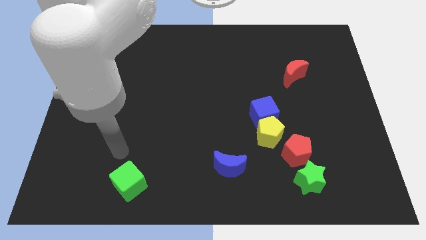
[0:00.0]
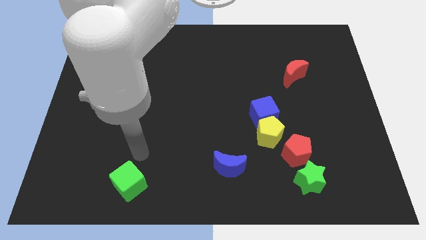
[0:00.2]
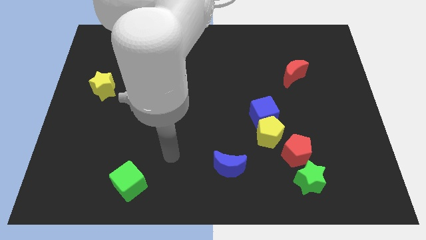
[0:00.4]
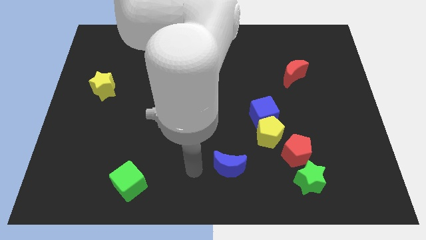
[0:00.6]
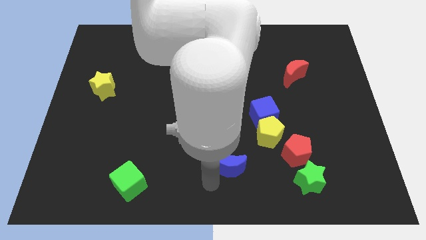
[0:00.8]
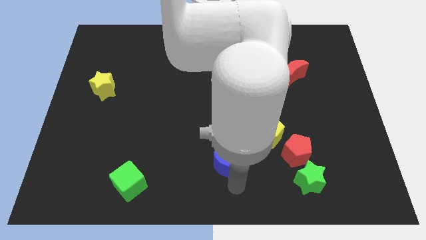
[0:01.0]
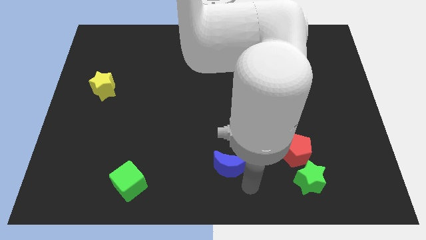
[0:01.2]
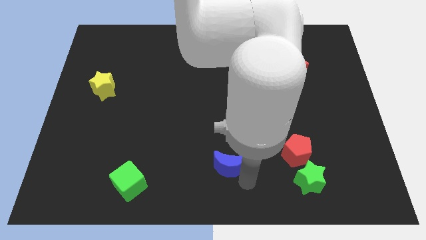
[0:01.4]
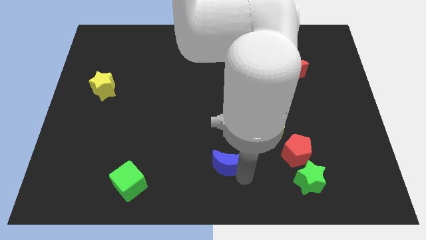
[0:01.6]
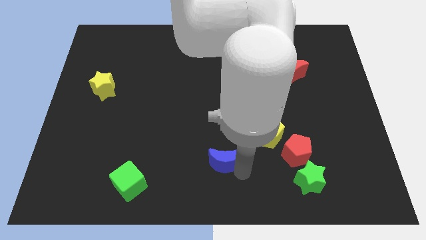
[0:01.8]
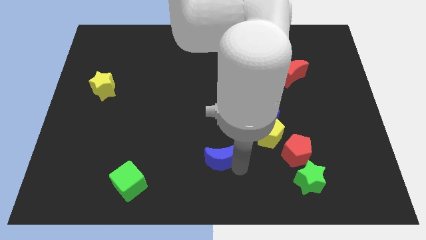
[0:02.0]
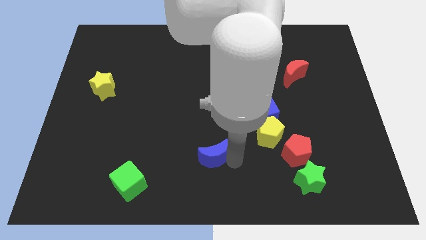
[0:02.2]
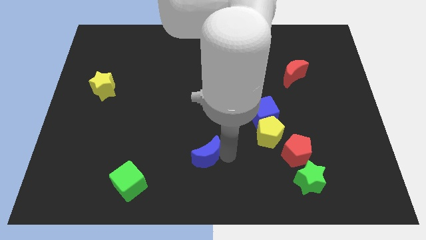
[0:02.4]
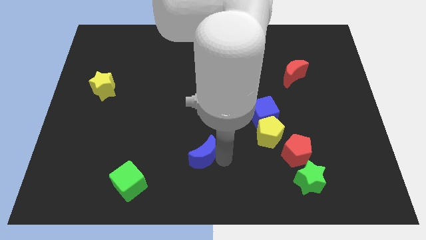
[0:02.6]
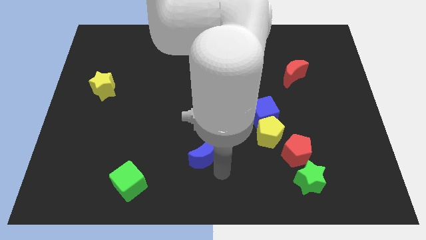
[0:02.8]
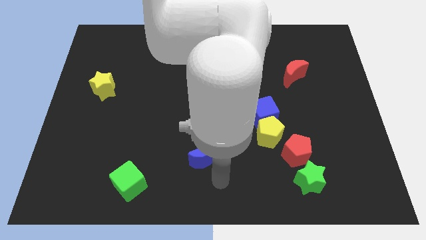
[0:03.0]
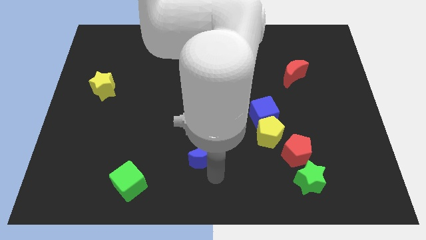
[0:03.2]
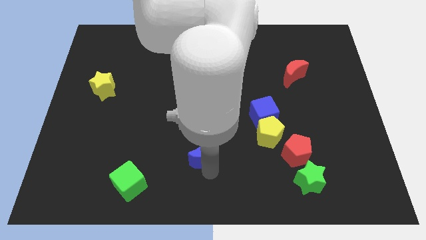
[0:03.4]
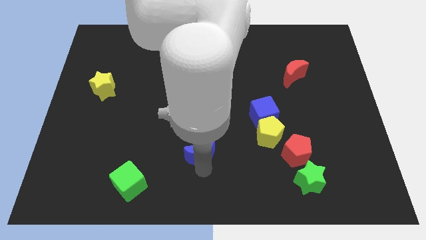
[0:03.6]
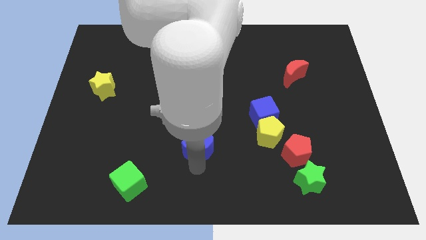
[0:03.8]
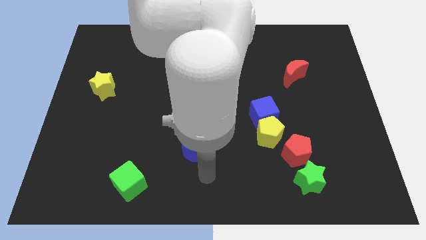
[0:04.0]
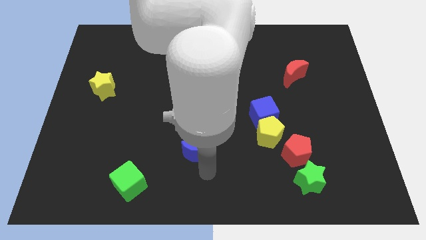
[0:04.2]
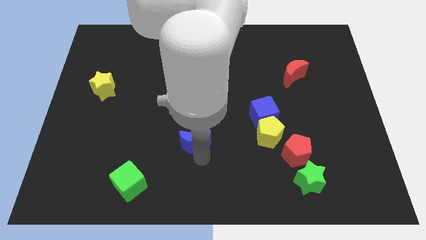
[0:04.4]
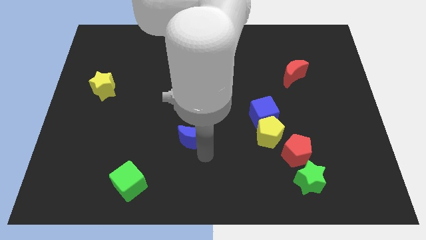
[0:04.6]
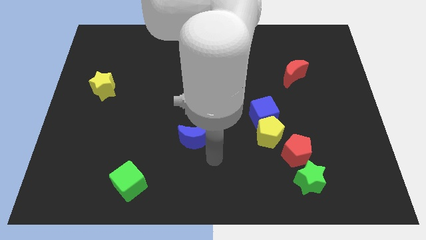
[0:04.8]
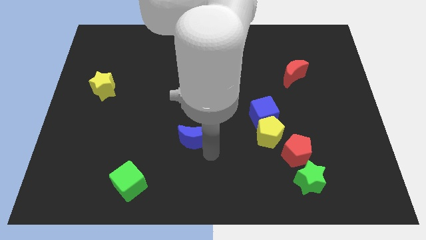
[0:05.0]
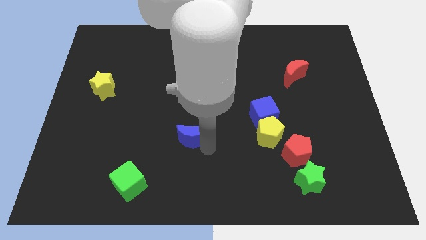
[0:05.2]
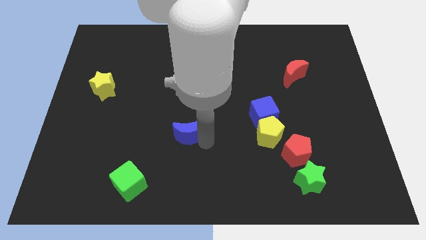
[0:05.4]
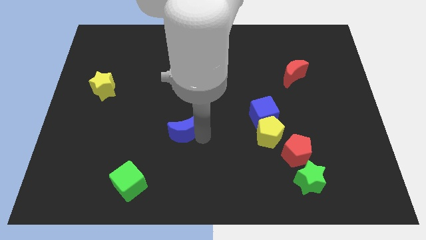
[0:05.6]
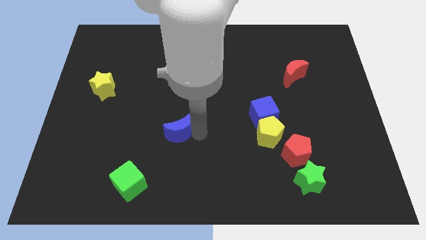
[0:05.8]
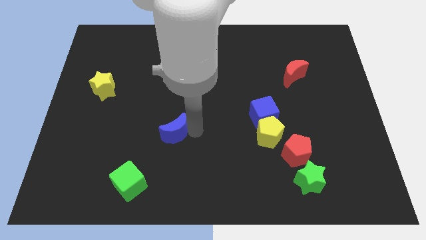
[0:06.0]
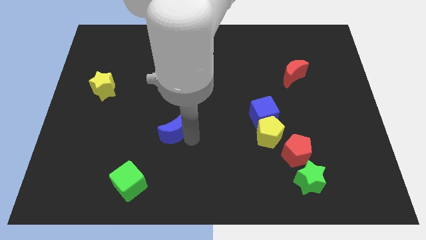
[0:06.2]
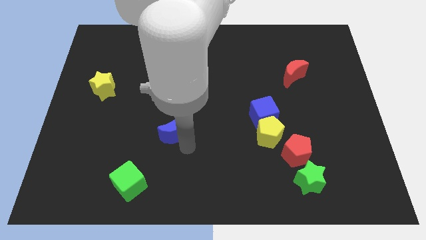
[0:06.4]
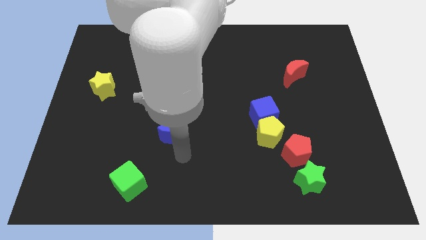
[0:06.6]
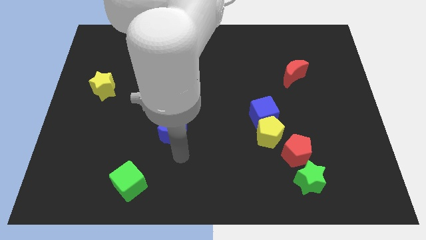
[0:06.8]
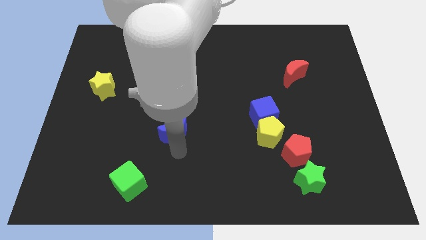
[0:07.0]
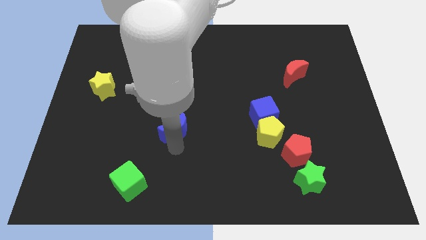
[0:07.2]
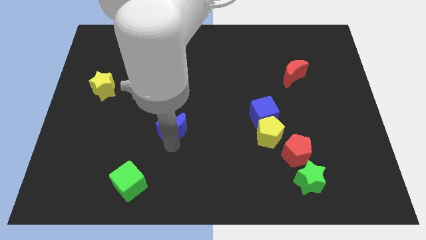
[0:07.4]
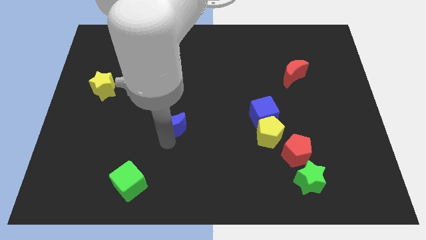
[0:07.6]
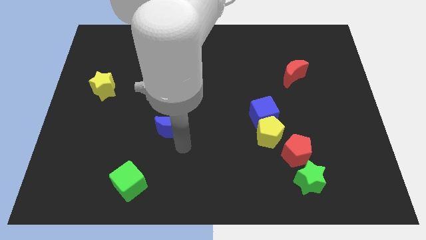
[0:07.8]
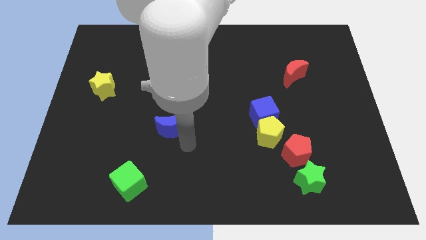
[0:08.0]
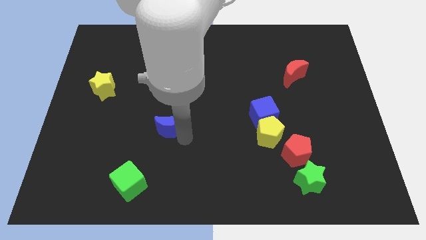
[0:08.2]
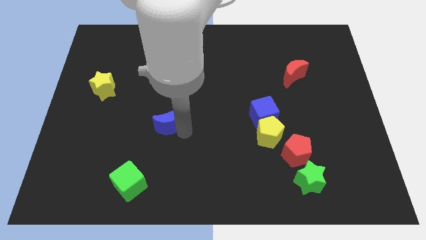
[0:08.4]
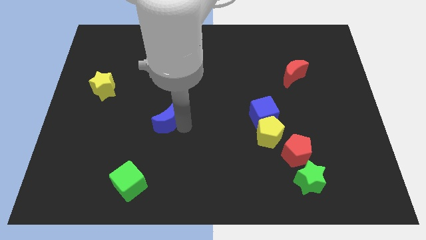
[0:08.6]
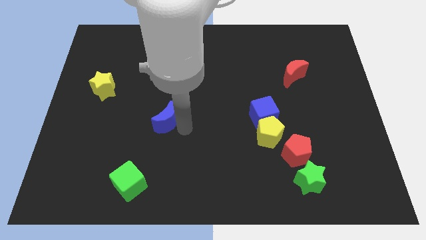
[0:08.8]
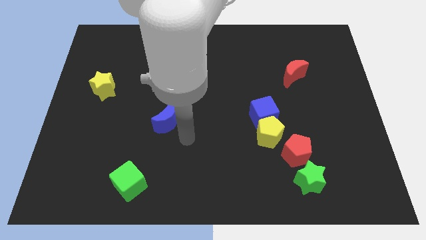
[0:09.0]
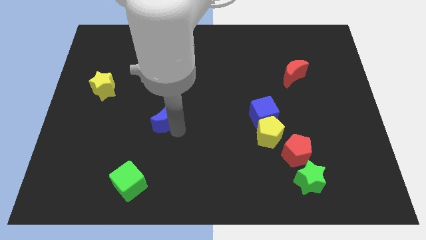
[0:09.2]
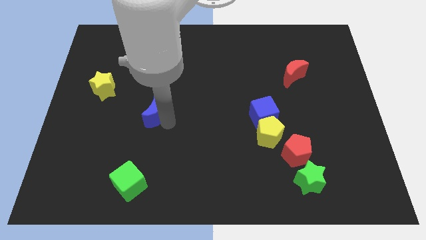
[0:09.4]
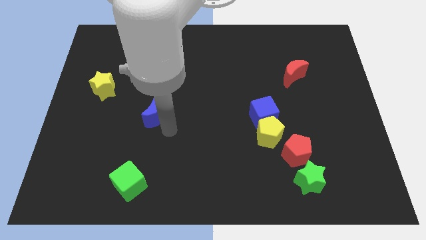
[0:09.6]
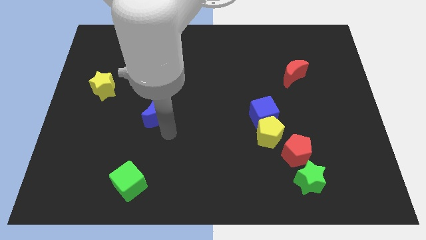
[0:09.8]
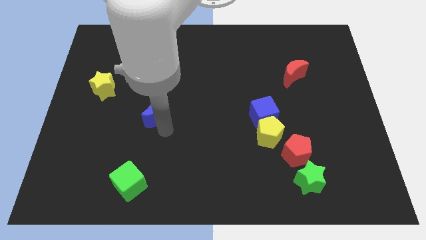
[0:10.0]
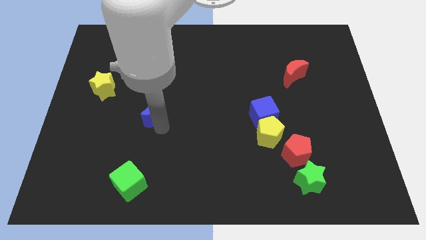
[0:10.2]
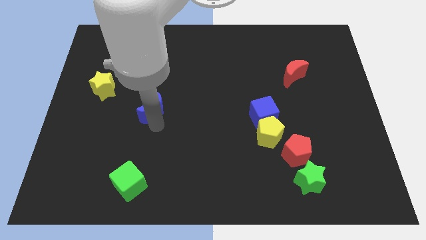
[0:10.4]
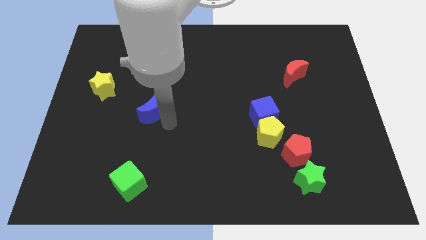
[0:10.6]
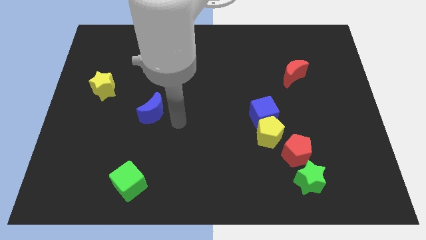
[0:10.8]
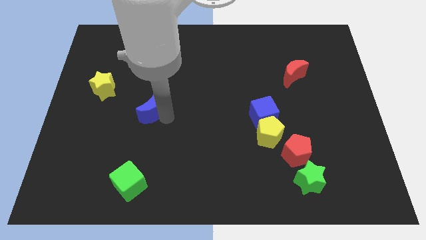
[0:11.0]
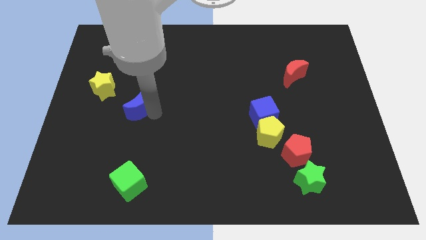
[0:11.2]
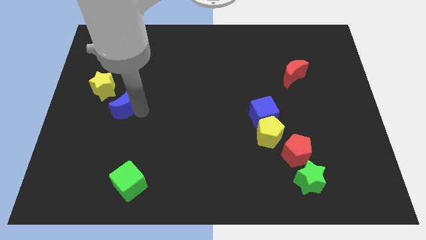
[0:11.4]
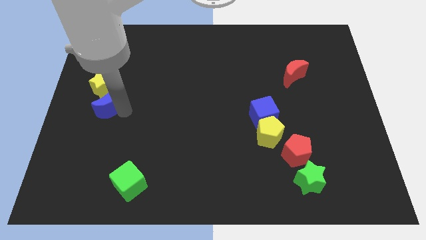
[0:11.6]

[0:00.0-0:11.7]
push the blue moon towards the yellow star

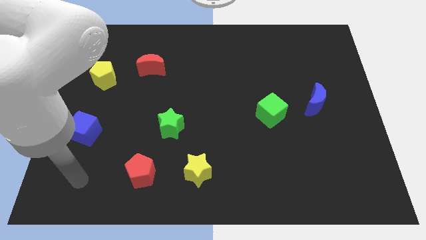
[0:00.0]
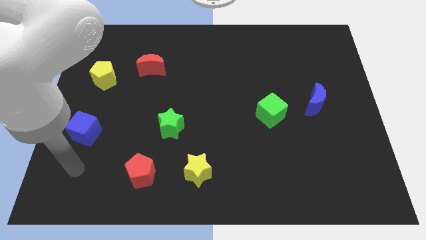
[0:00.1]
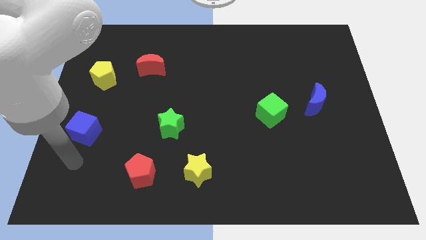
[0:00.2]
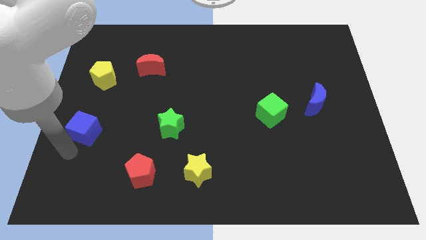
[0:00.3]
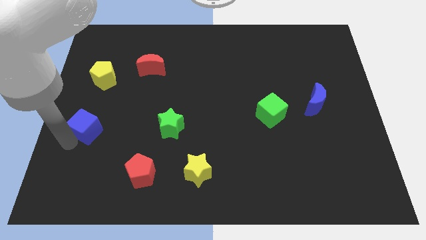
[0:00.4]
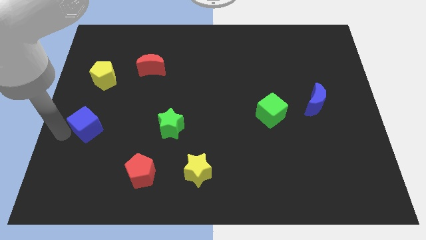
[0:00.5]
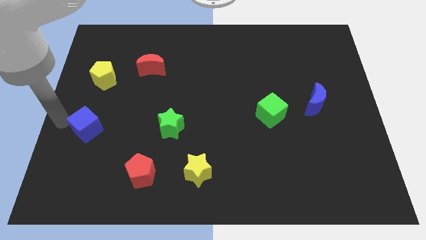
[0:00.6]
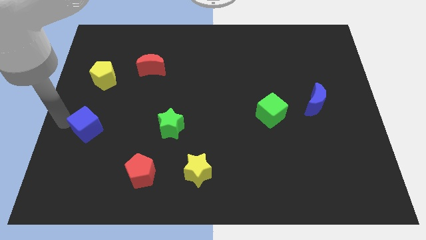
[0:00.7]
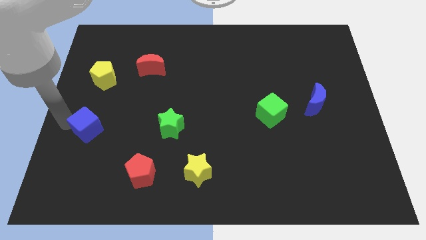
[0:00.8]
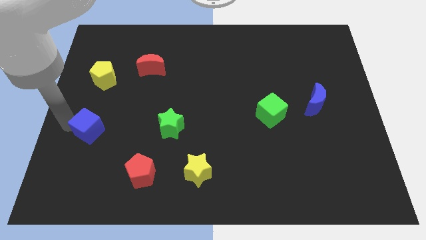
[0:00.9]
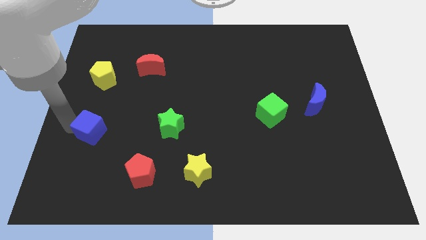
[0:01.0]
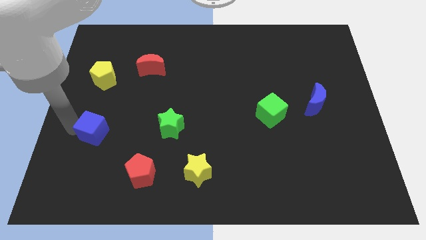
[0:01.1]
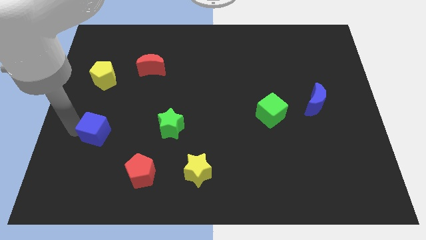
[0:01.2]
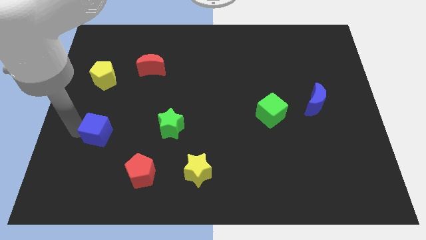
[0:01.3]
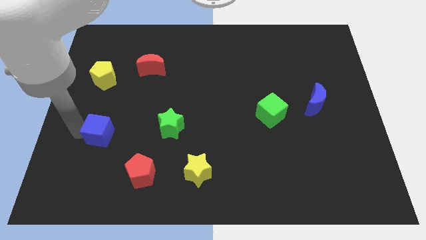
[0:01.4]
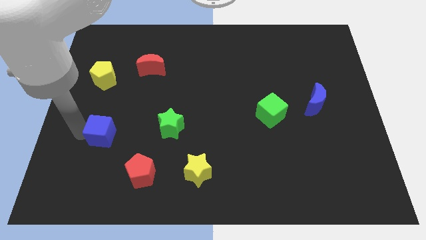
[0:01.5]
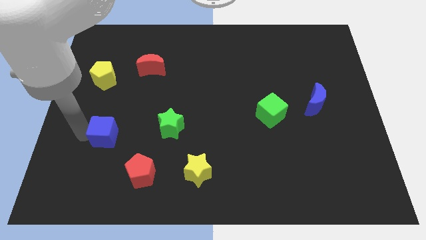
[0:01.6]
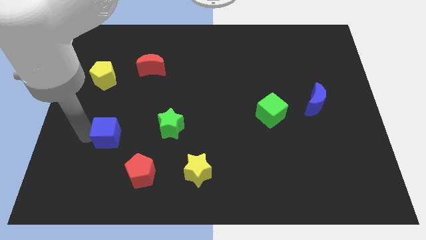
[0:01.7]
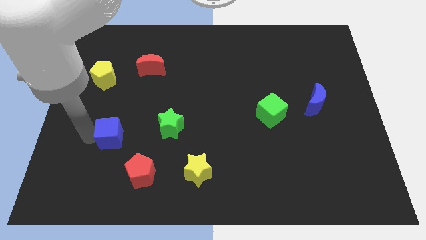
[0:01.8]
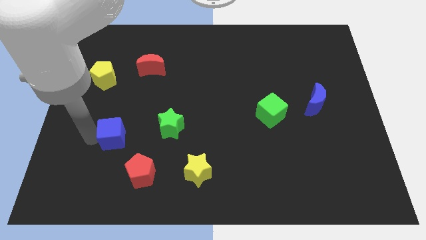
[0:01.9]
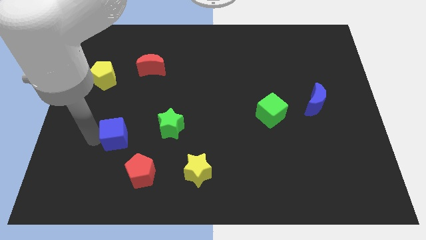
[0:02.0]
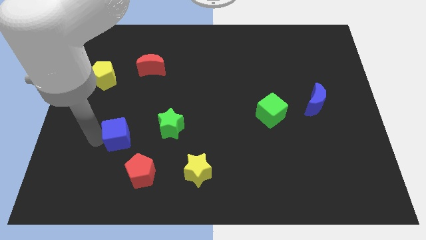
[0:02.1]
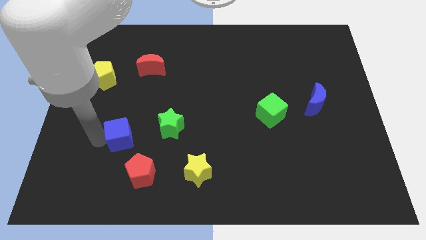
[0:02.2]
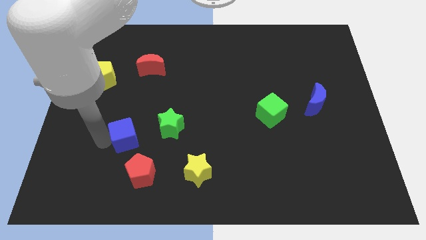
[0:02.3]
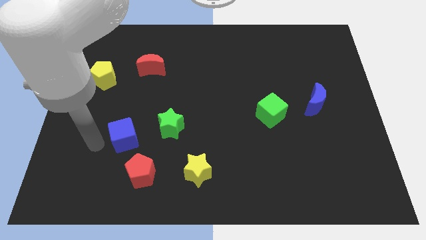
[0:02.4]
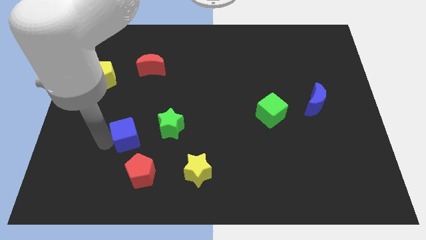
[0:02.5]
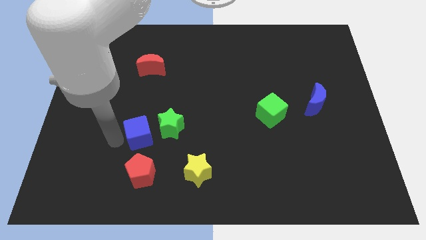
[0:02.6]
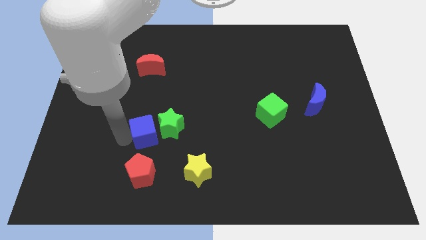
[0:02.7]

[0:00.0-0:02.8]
put the blue cube to the green star
